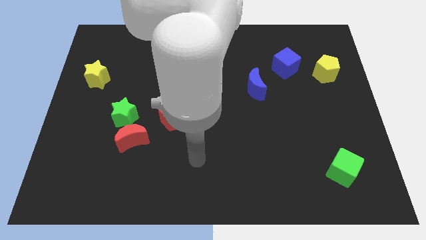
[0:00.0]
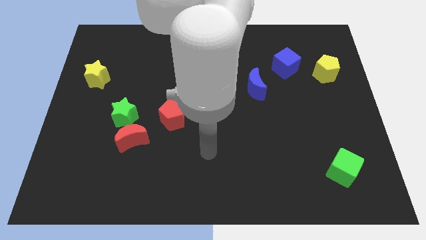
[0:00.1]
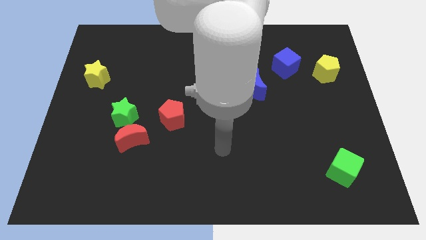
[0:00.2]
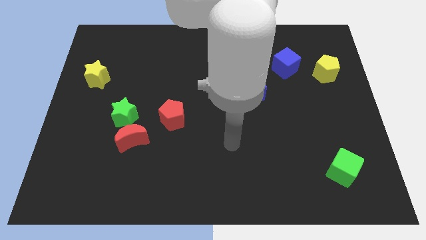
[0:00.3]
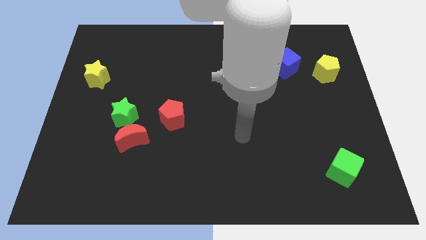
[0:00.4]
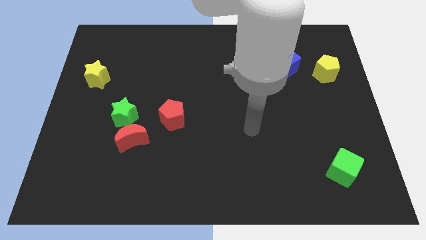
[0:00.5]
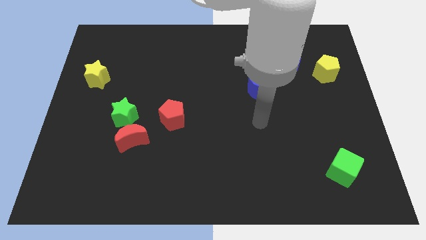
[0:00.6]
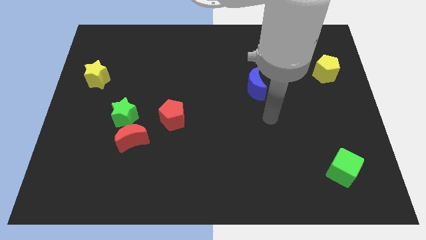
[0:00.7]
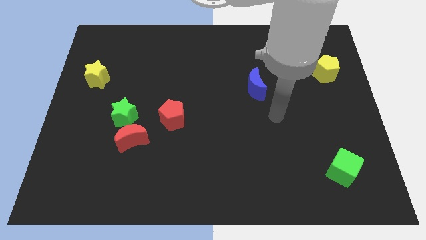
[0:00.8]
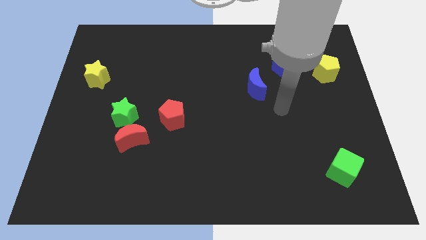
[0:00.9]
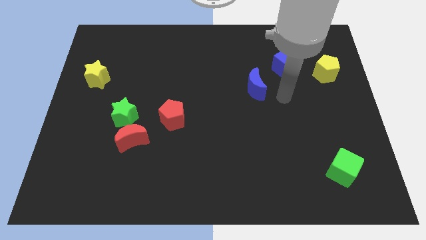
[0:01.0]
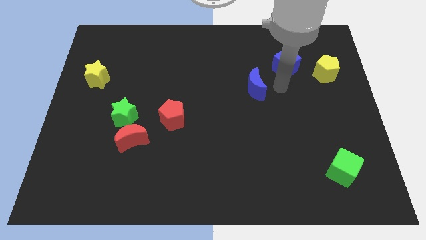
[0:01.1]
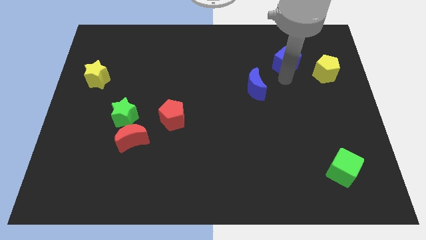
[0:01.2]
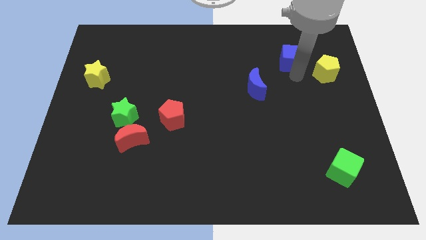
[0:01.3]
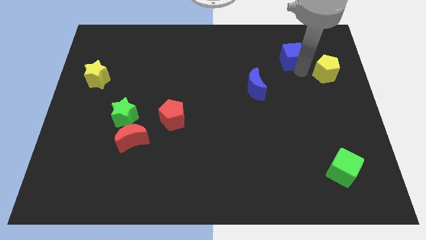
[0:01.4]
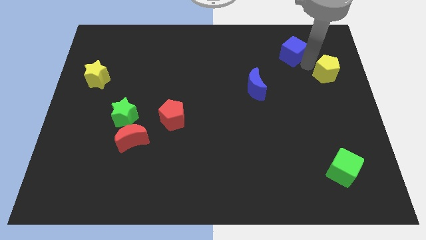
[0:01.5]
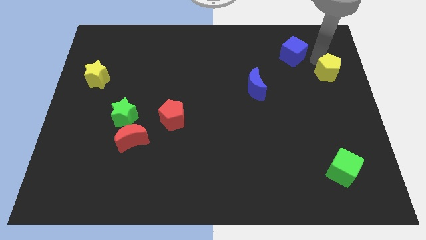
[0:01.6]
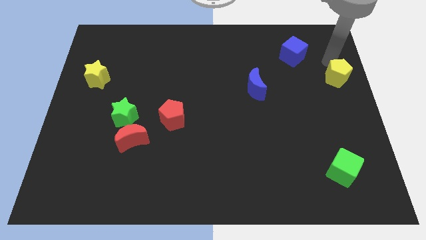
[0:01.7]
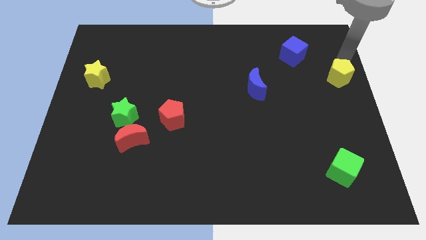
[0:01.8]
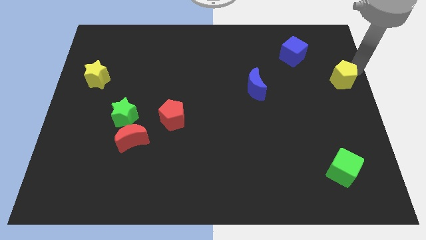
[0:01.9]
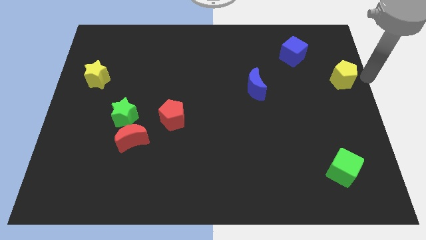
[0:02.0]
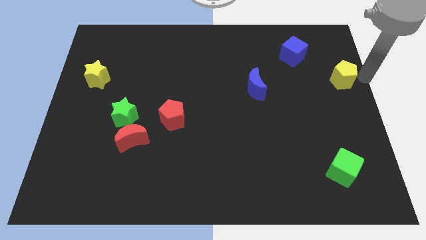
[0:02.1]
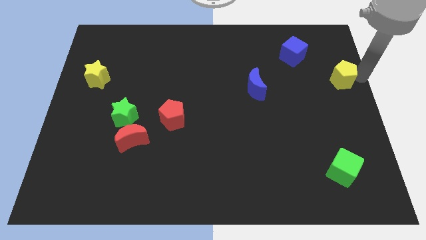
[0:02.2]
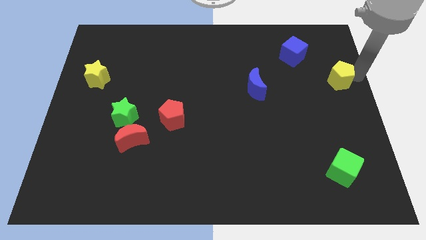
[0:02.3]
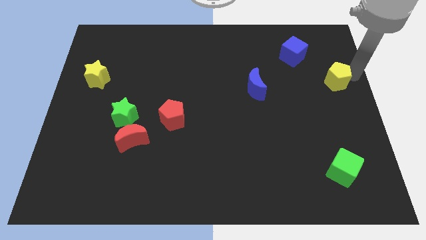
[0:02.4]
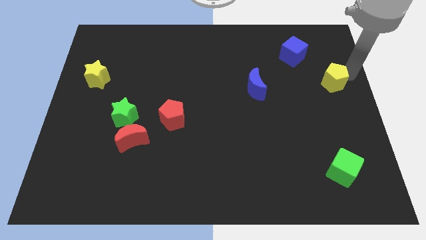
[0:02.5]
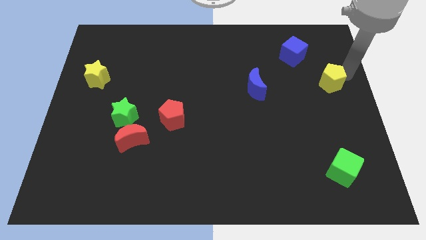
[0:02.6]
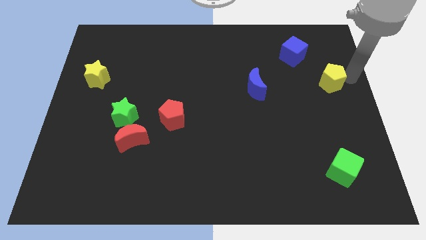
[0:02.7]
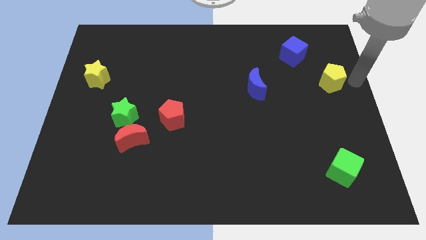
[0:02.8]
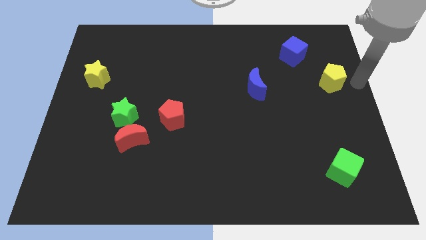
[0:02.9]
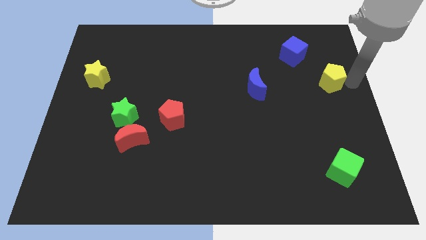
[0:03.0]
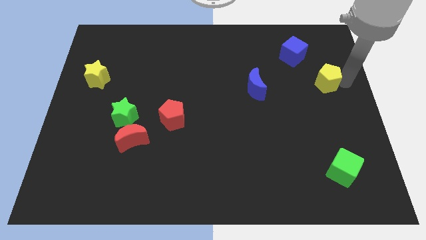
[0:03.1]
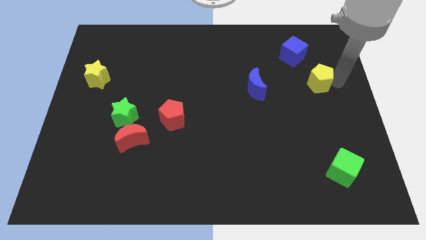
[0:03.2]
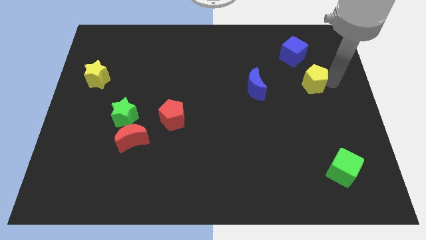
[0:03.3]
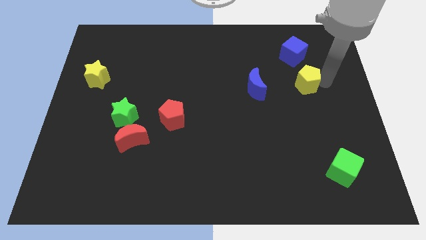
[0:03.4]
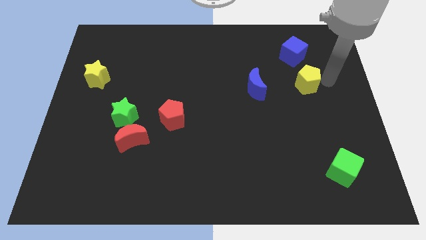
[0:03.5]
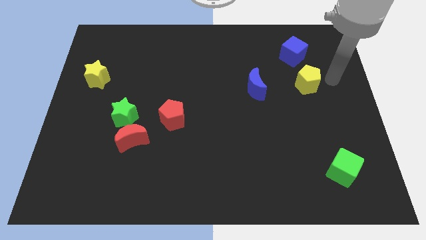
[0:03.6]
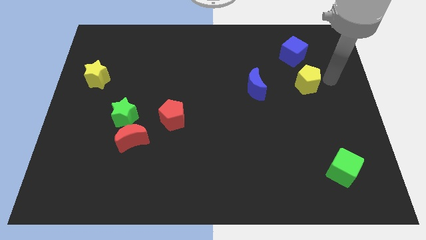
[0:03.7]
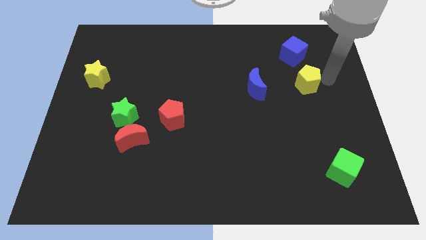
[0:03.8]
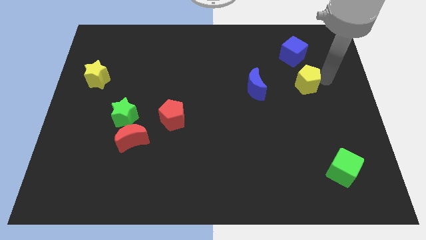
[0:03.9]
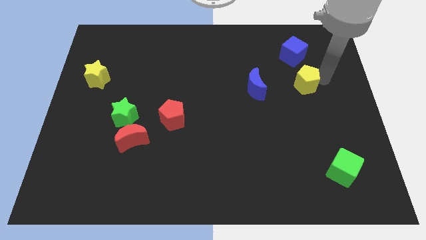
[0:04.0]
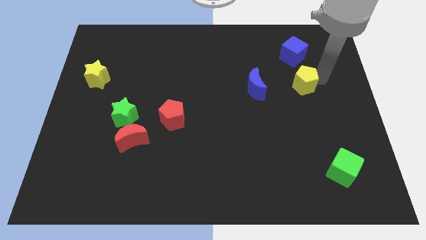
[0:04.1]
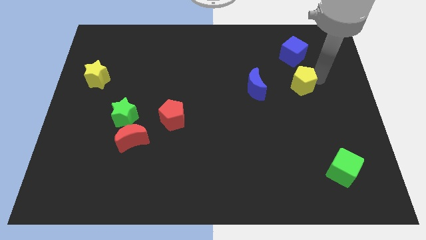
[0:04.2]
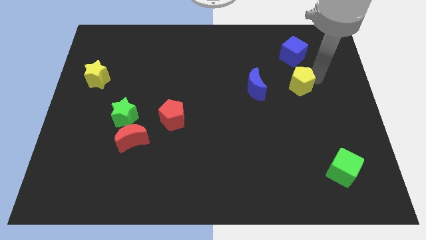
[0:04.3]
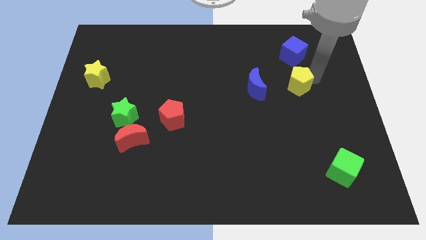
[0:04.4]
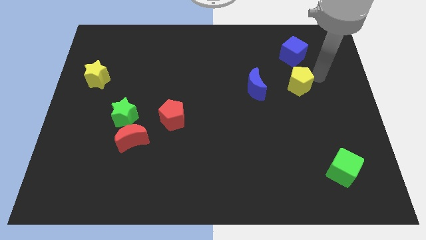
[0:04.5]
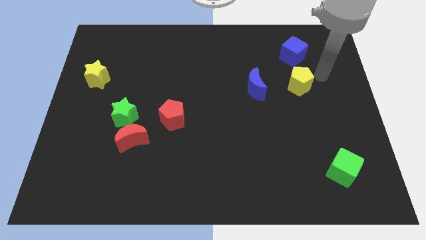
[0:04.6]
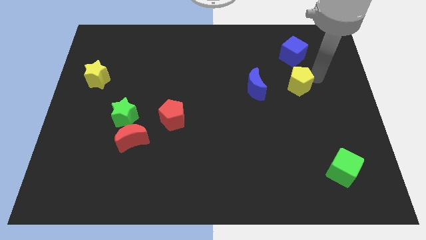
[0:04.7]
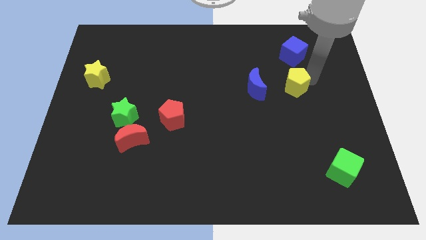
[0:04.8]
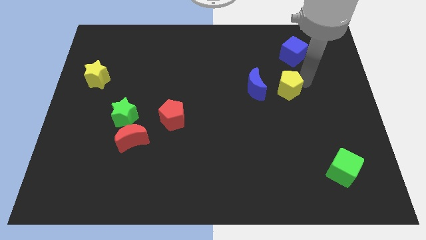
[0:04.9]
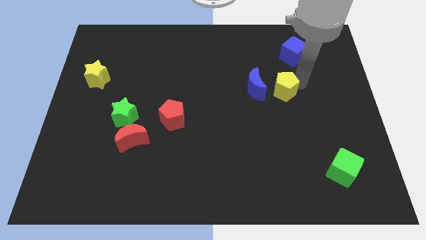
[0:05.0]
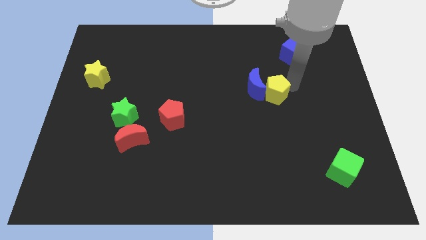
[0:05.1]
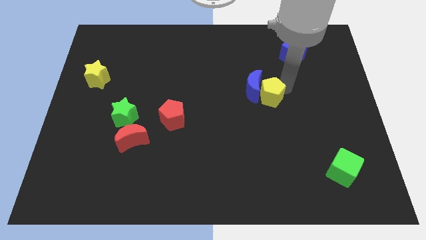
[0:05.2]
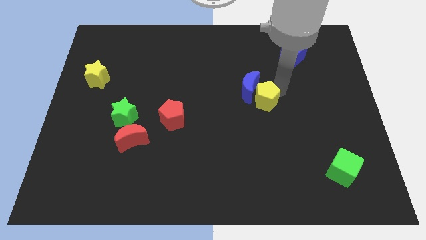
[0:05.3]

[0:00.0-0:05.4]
move the yellow pentagon to the middle

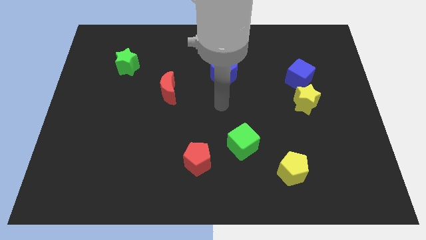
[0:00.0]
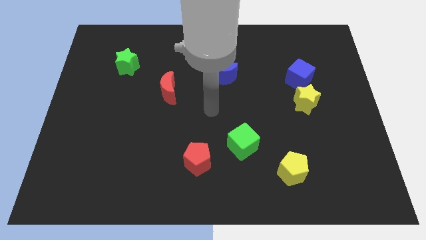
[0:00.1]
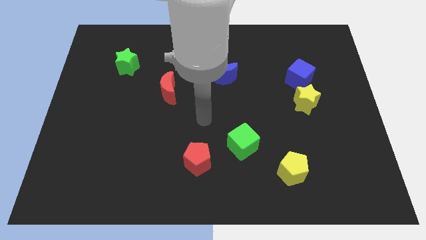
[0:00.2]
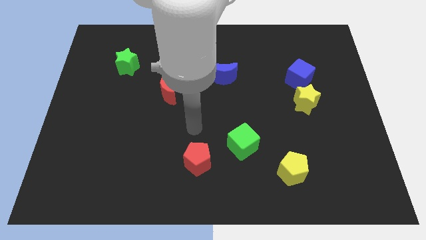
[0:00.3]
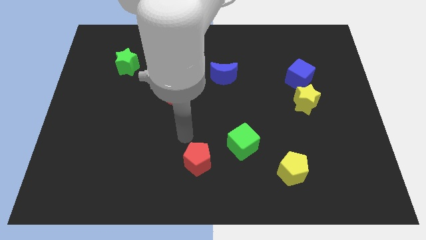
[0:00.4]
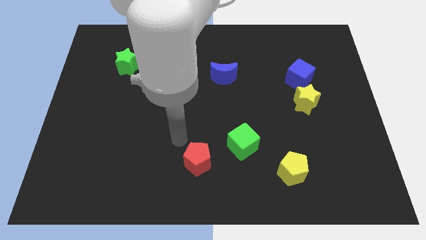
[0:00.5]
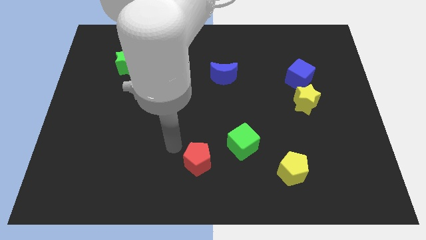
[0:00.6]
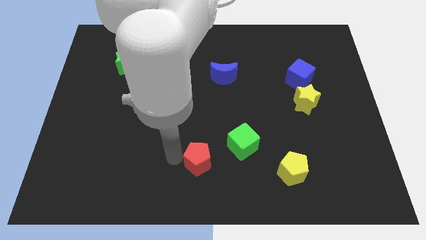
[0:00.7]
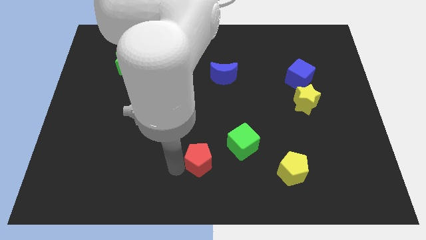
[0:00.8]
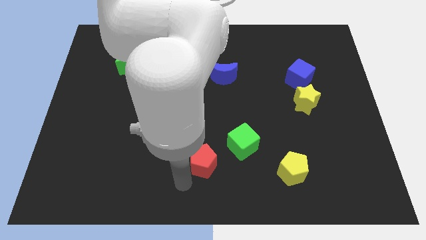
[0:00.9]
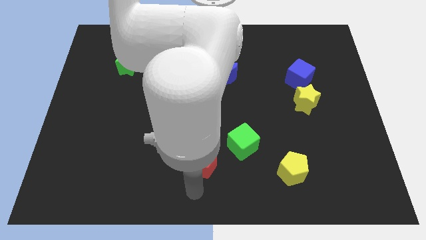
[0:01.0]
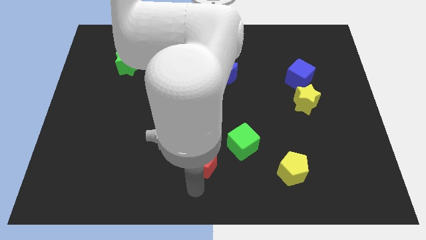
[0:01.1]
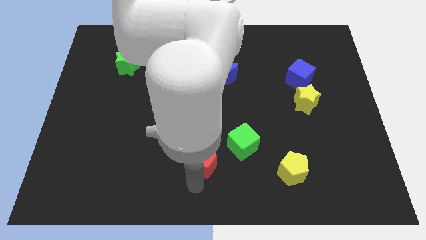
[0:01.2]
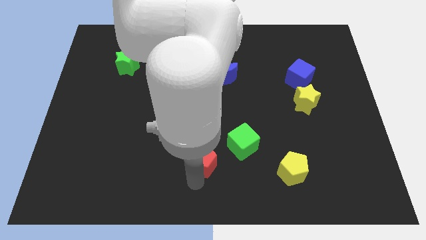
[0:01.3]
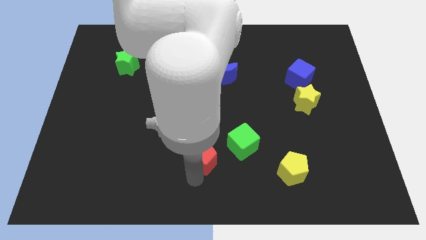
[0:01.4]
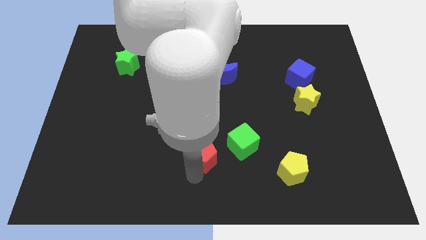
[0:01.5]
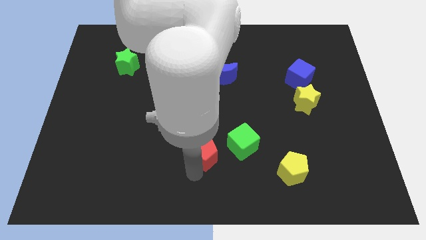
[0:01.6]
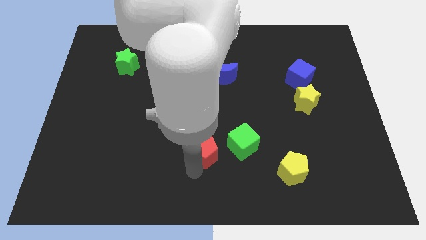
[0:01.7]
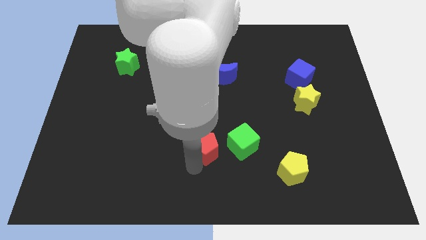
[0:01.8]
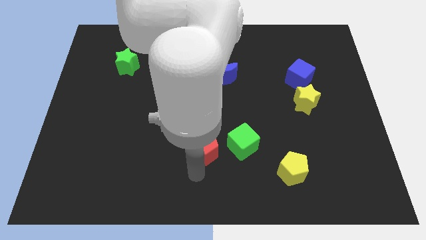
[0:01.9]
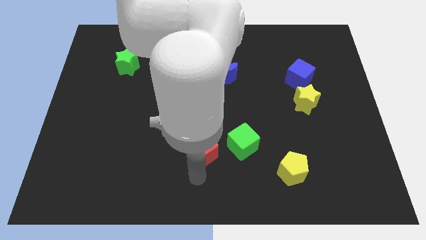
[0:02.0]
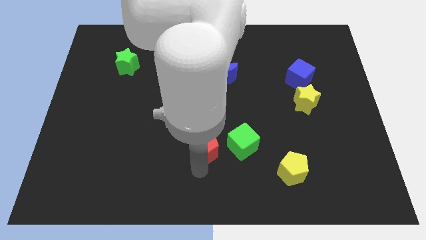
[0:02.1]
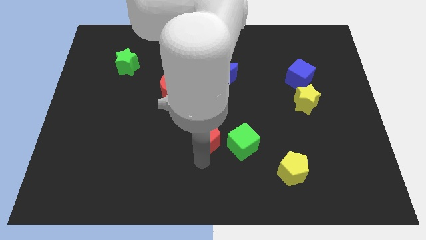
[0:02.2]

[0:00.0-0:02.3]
push the red pentagon to the middle
